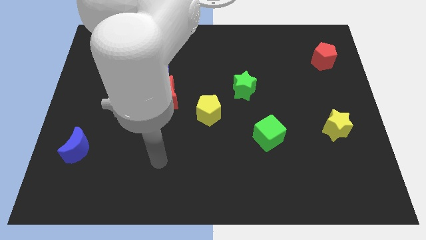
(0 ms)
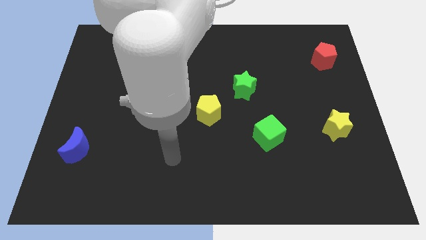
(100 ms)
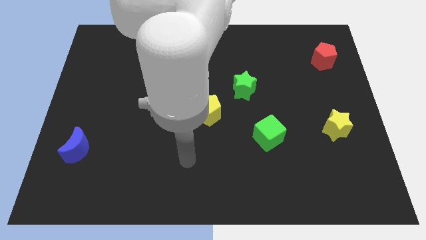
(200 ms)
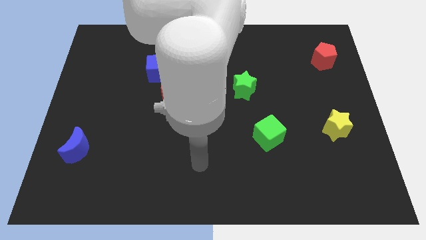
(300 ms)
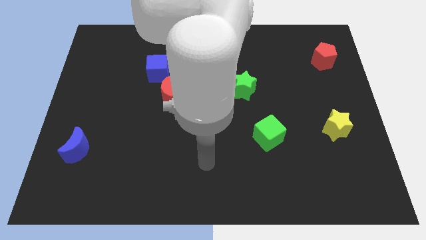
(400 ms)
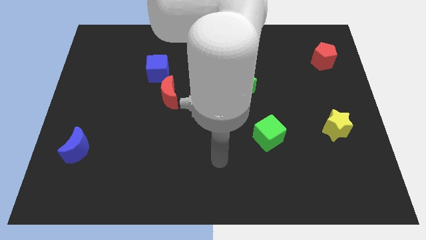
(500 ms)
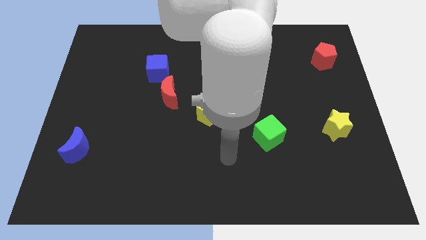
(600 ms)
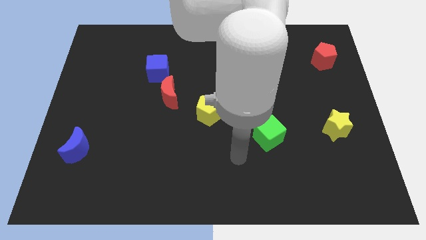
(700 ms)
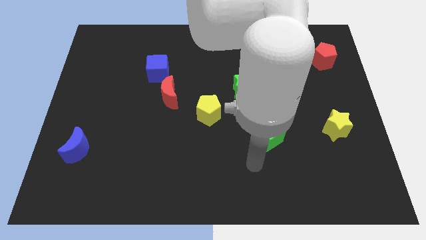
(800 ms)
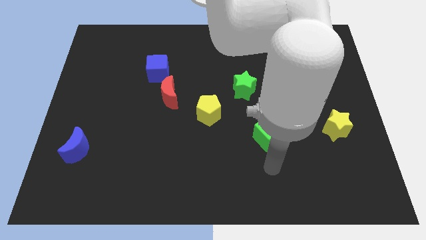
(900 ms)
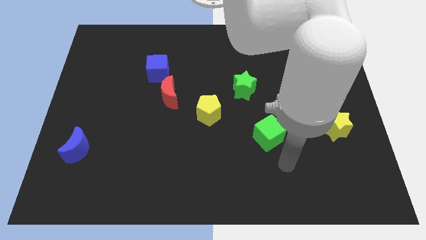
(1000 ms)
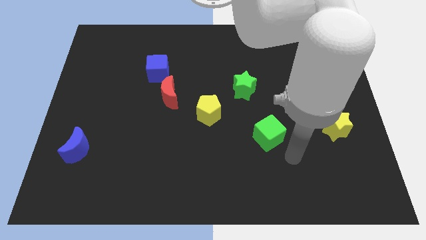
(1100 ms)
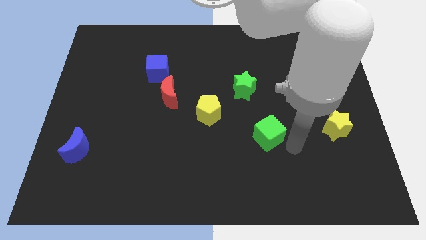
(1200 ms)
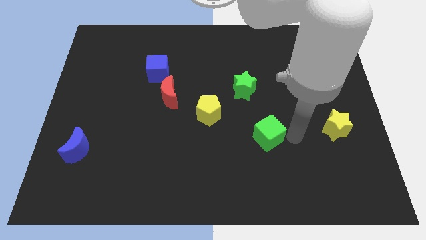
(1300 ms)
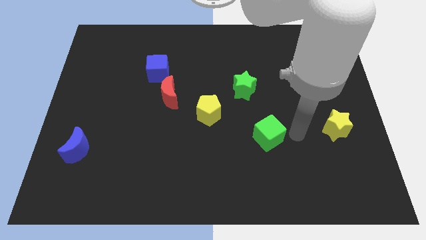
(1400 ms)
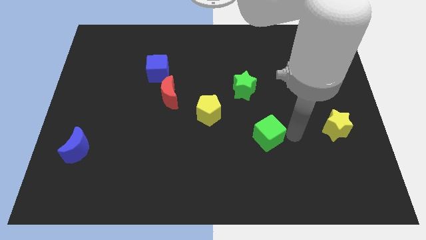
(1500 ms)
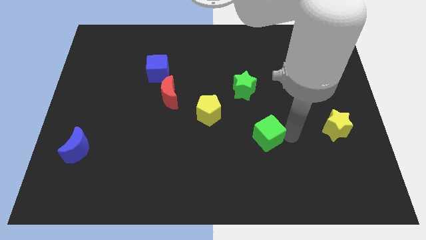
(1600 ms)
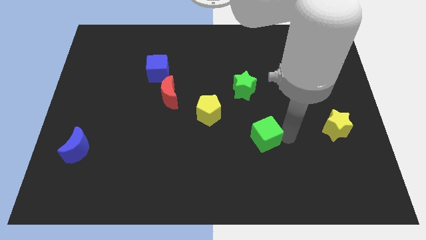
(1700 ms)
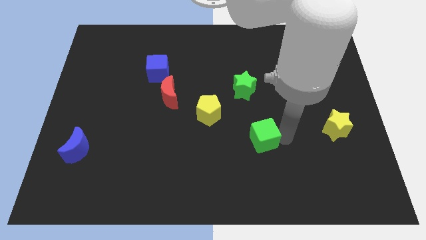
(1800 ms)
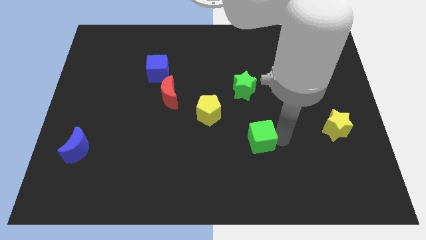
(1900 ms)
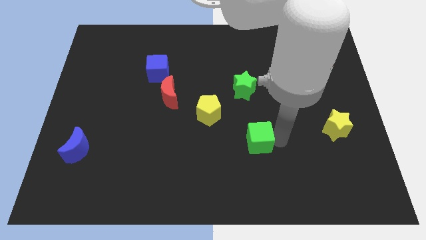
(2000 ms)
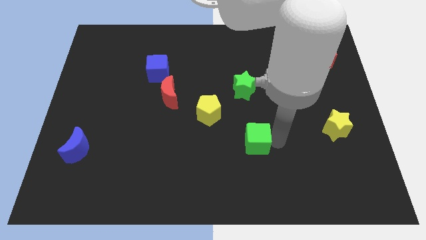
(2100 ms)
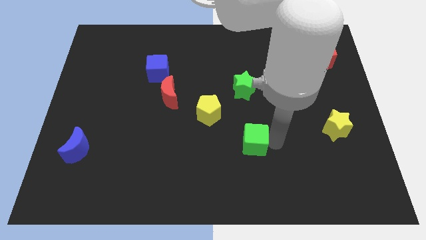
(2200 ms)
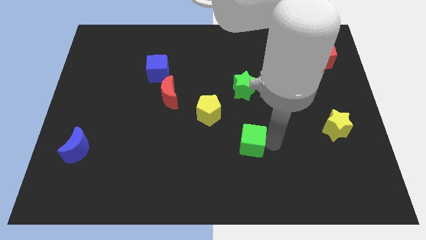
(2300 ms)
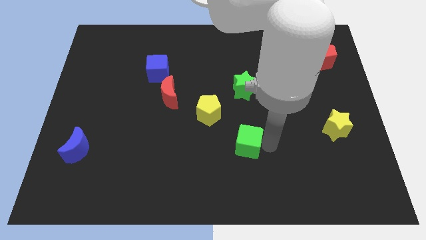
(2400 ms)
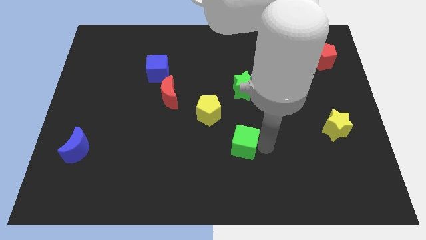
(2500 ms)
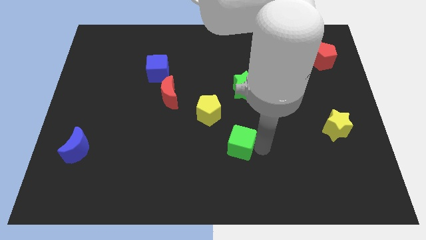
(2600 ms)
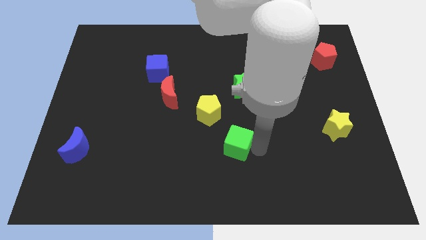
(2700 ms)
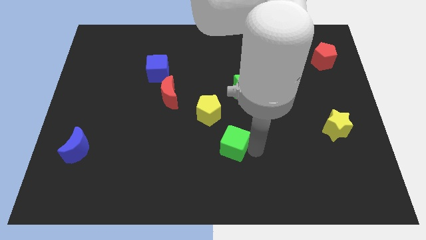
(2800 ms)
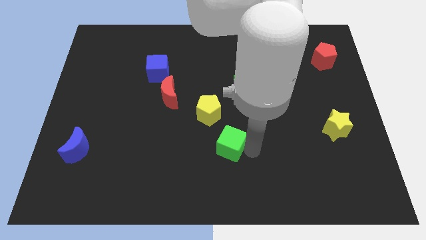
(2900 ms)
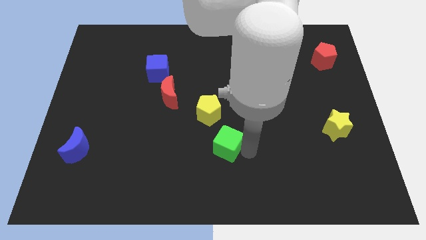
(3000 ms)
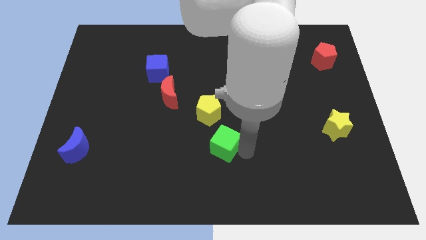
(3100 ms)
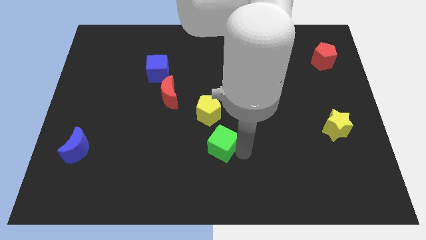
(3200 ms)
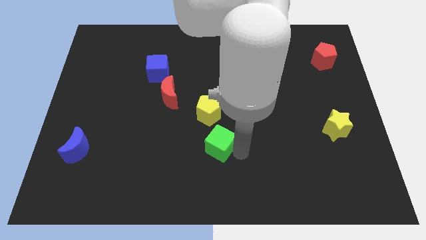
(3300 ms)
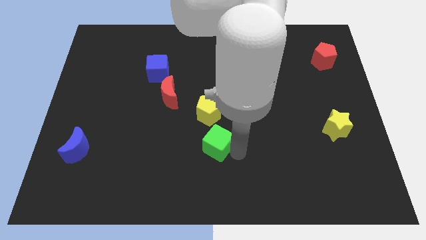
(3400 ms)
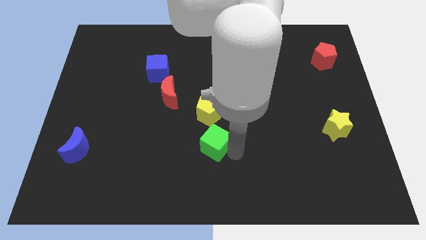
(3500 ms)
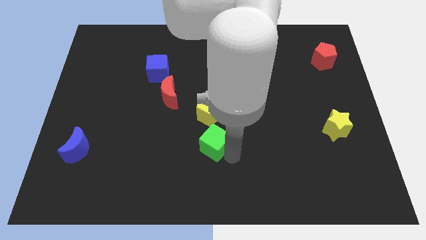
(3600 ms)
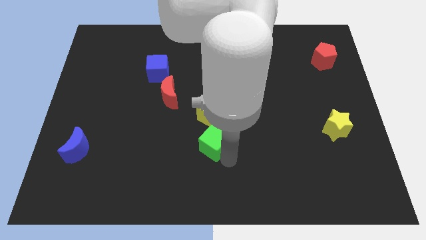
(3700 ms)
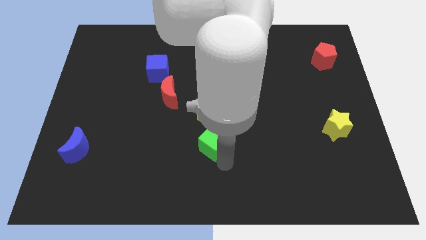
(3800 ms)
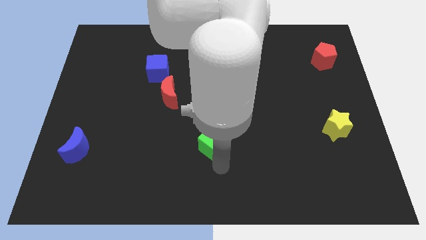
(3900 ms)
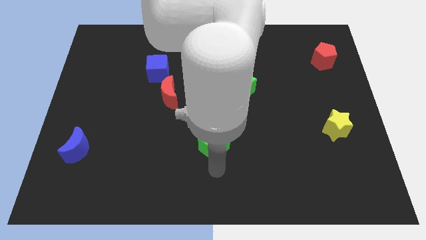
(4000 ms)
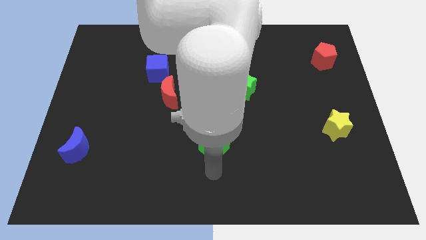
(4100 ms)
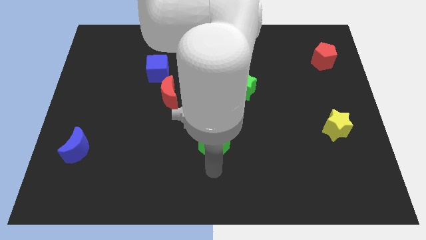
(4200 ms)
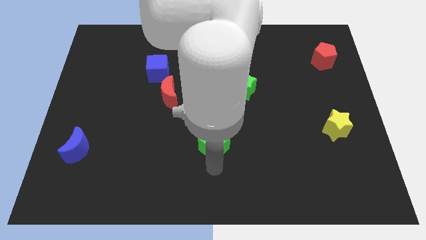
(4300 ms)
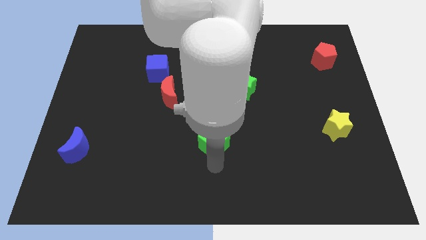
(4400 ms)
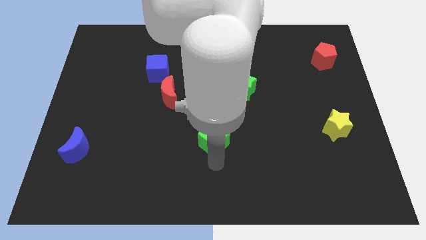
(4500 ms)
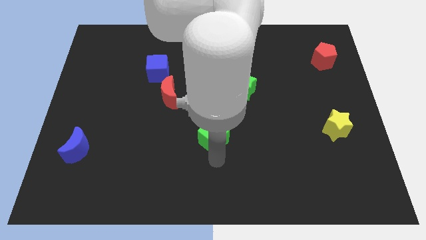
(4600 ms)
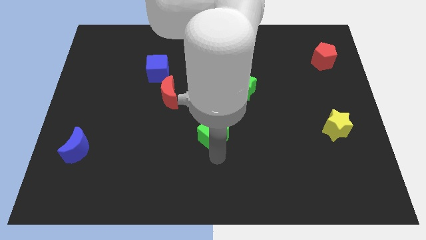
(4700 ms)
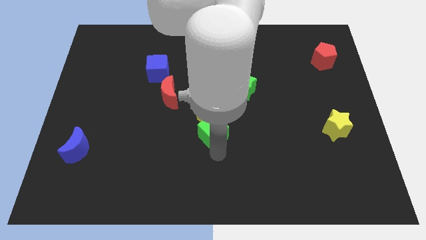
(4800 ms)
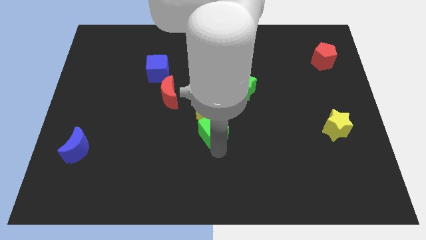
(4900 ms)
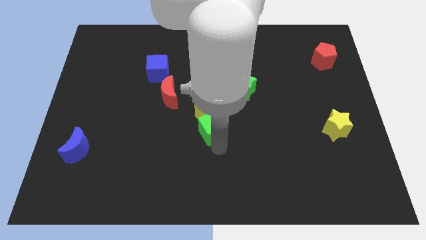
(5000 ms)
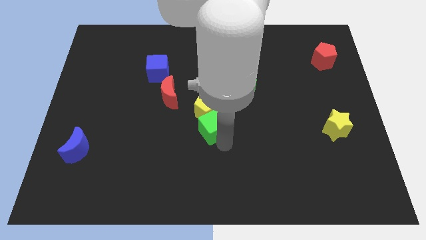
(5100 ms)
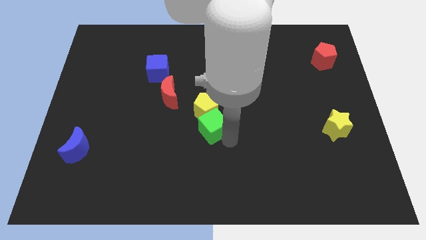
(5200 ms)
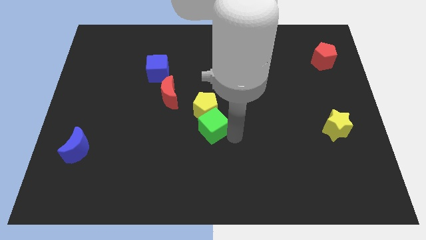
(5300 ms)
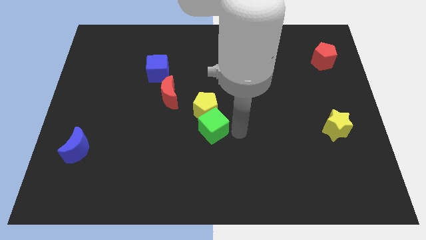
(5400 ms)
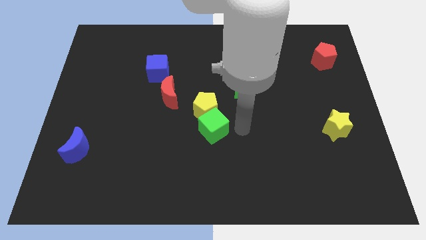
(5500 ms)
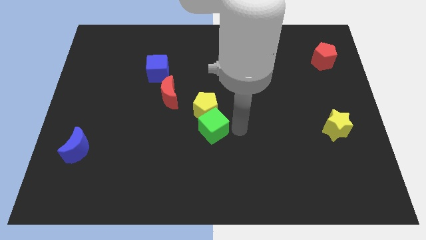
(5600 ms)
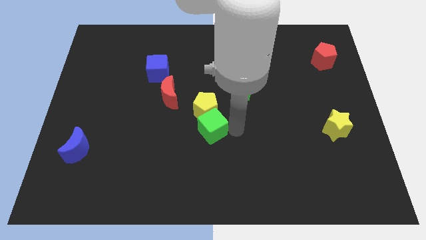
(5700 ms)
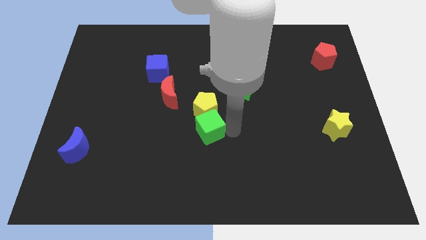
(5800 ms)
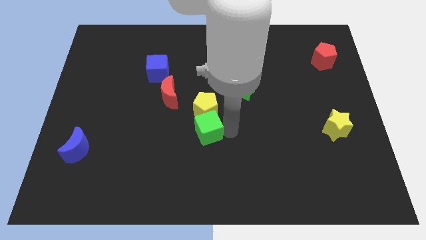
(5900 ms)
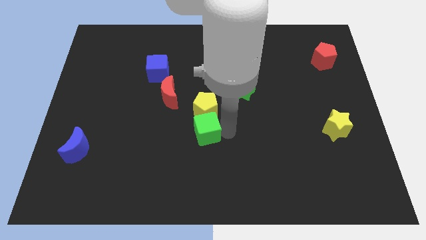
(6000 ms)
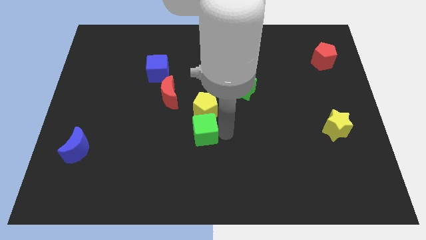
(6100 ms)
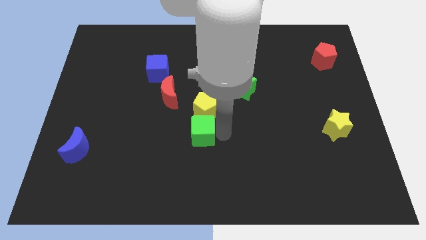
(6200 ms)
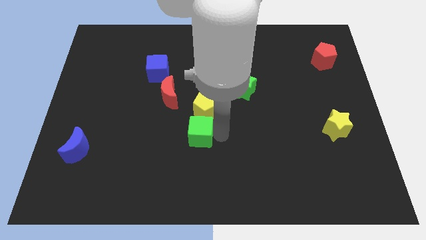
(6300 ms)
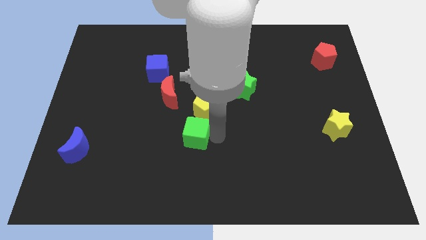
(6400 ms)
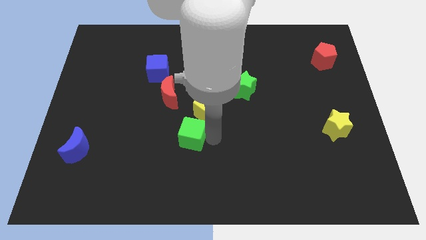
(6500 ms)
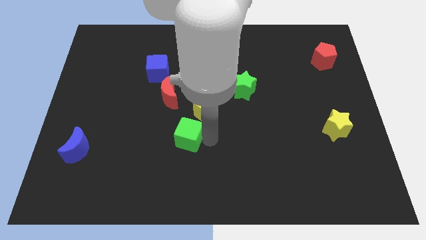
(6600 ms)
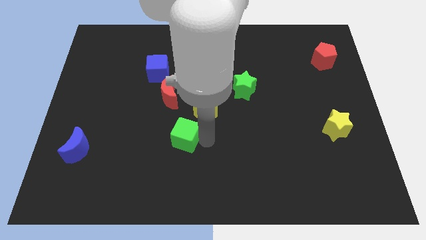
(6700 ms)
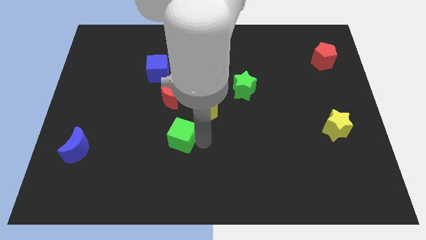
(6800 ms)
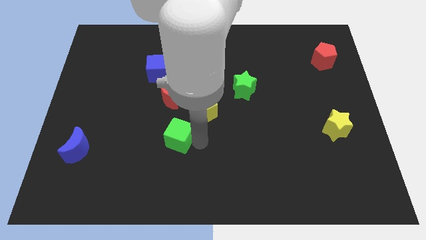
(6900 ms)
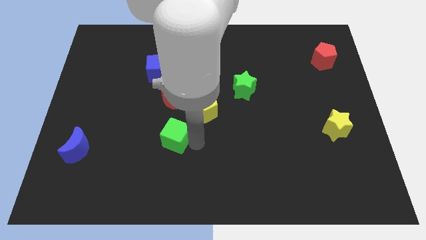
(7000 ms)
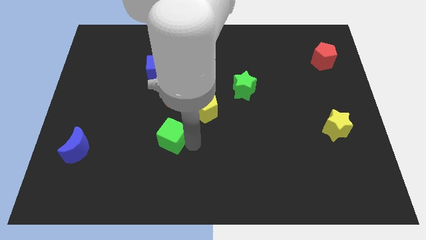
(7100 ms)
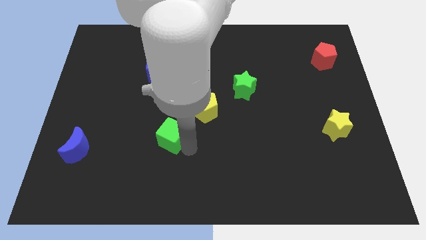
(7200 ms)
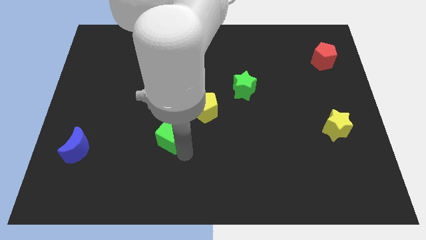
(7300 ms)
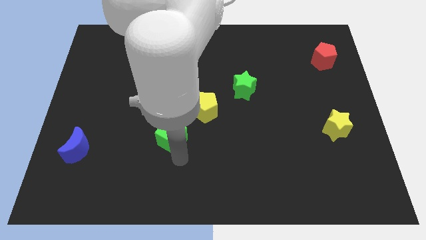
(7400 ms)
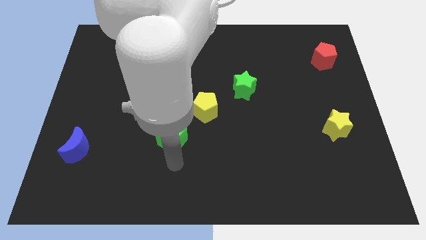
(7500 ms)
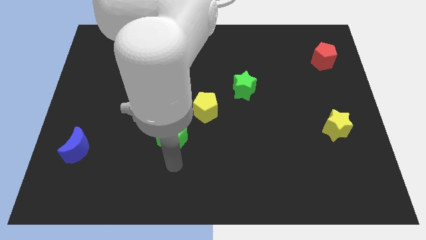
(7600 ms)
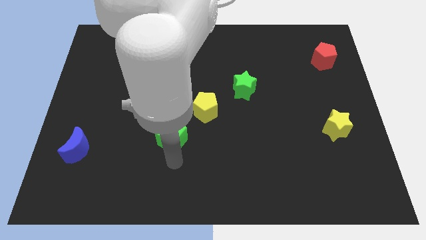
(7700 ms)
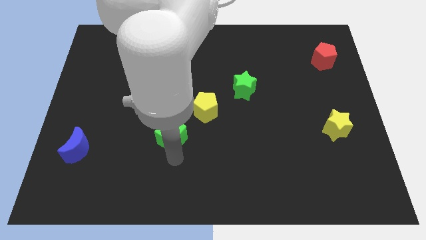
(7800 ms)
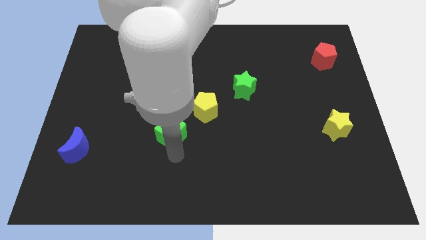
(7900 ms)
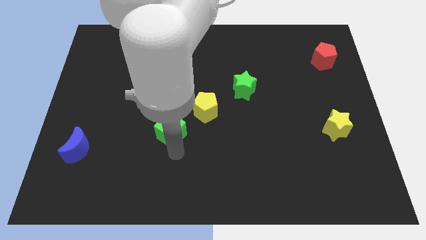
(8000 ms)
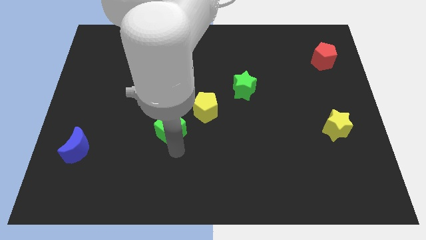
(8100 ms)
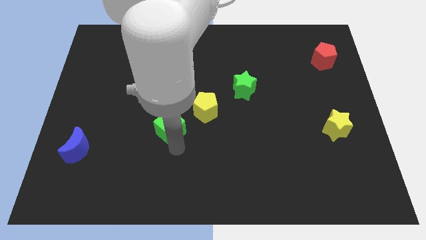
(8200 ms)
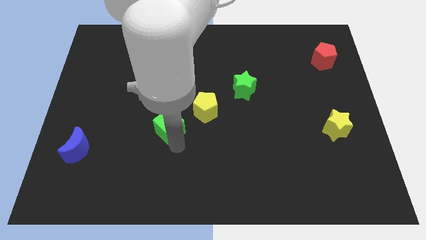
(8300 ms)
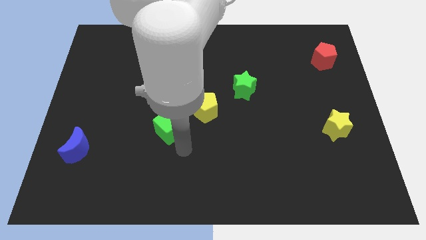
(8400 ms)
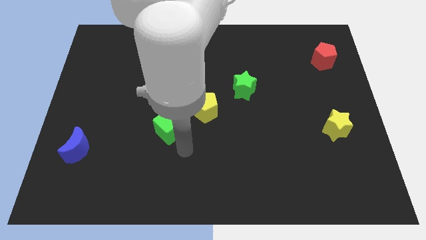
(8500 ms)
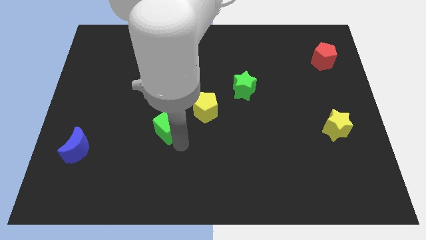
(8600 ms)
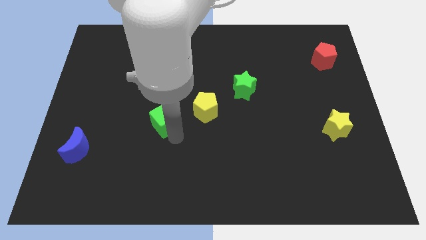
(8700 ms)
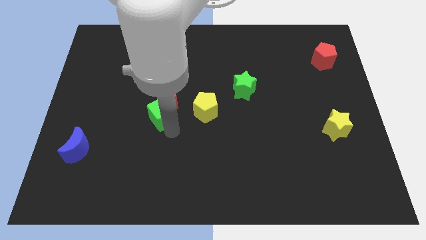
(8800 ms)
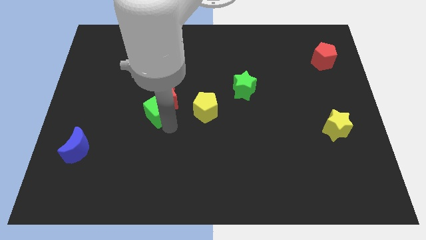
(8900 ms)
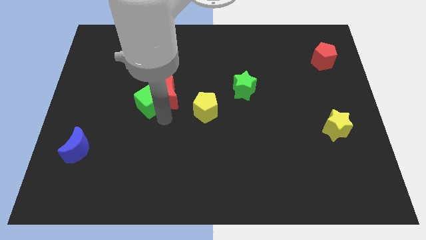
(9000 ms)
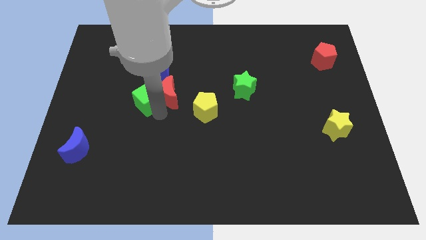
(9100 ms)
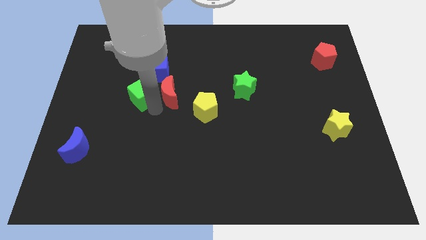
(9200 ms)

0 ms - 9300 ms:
put the green cube to the bottom left side of the blue cube
